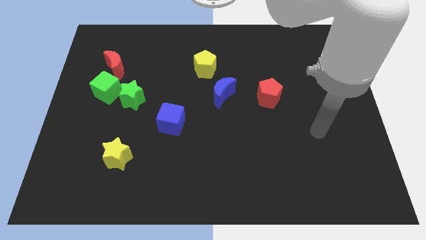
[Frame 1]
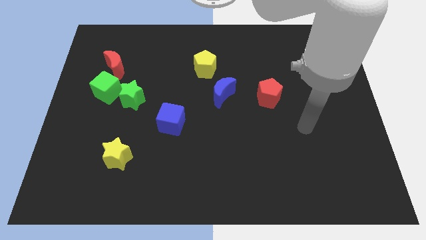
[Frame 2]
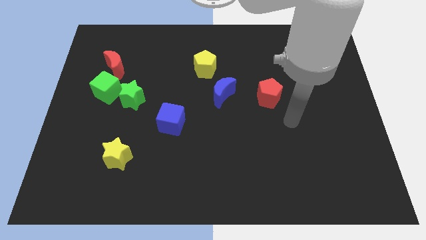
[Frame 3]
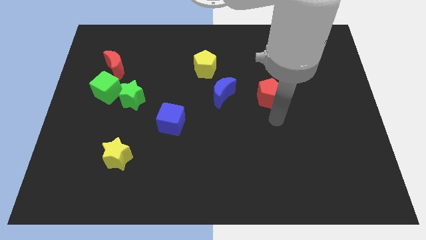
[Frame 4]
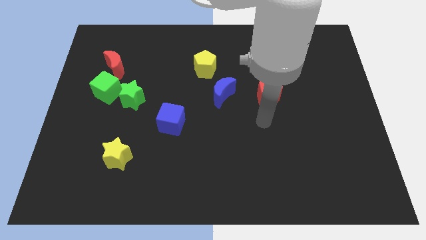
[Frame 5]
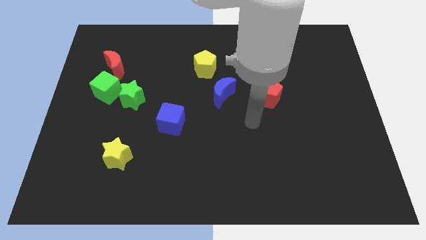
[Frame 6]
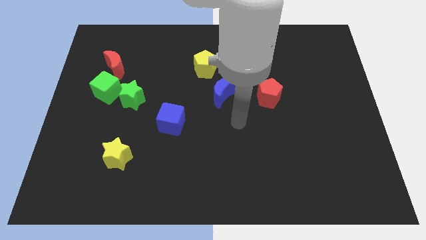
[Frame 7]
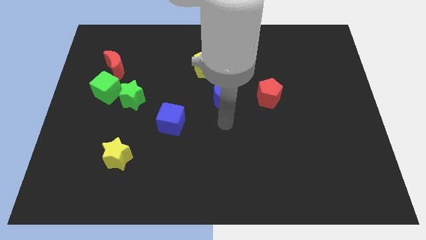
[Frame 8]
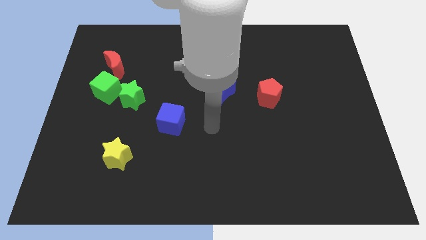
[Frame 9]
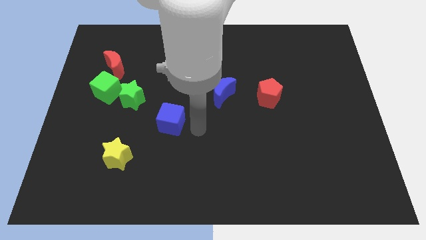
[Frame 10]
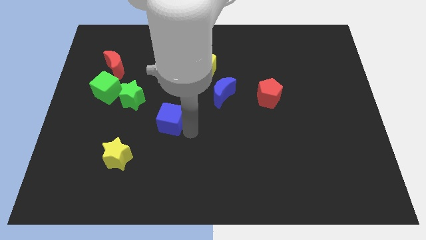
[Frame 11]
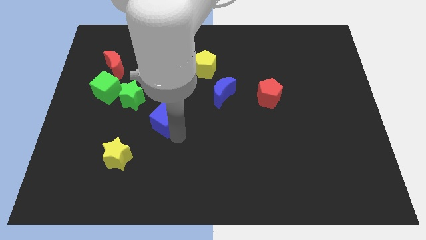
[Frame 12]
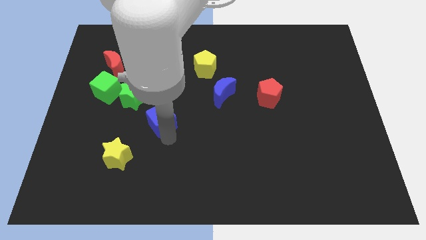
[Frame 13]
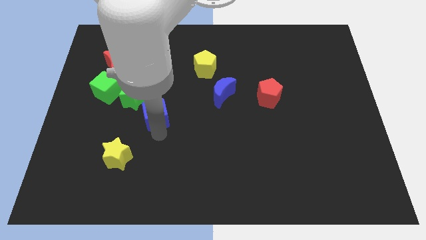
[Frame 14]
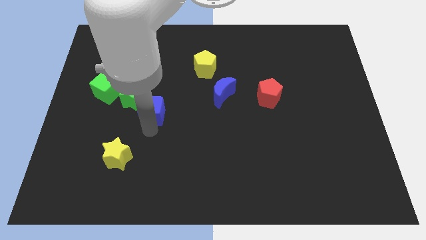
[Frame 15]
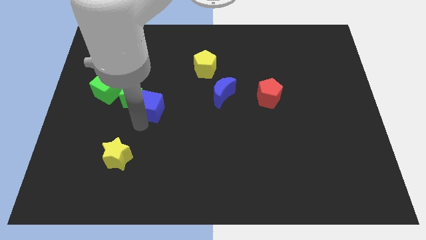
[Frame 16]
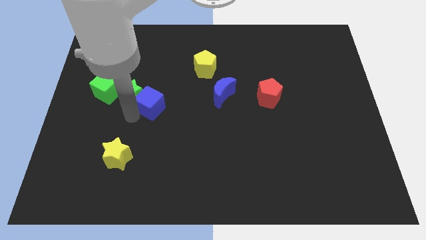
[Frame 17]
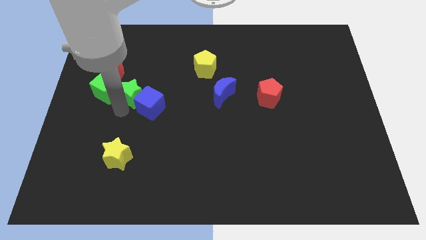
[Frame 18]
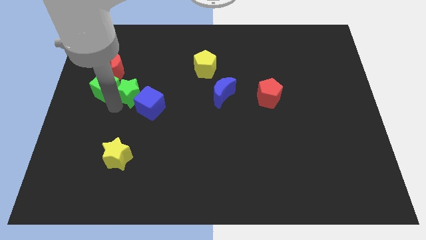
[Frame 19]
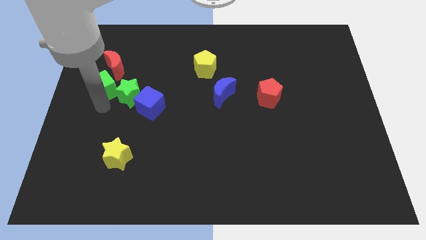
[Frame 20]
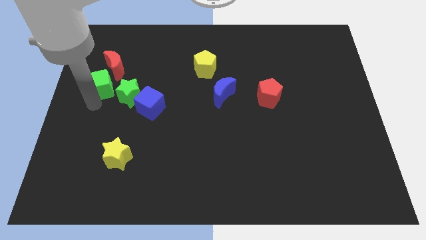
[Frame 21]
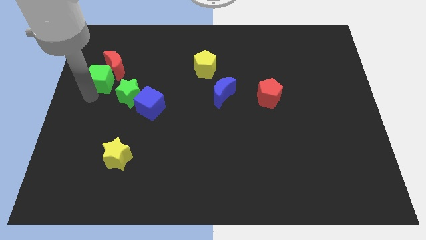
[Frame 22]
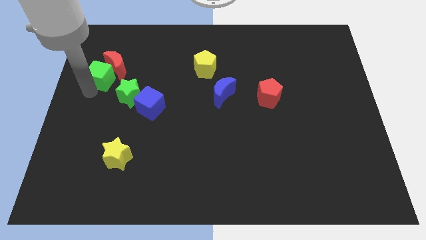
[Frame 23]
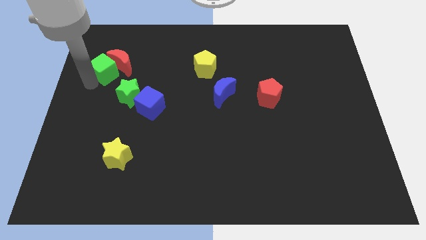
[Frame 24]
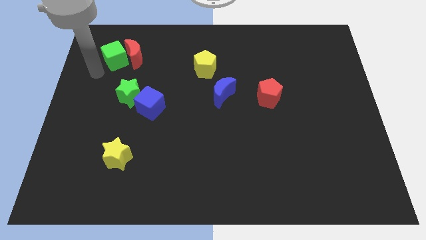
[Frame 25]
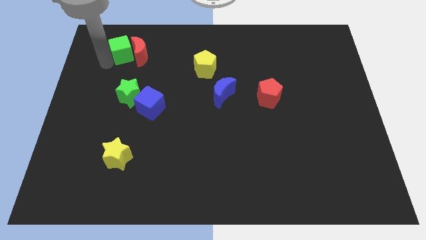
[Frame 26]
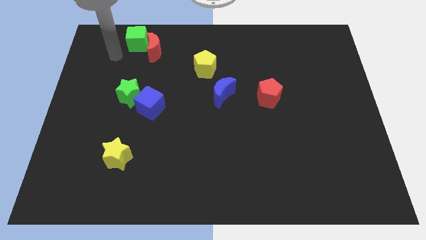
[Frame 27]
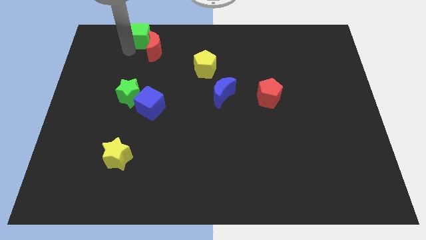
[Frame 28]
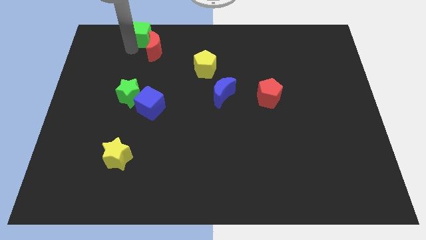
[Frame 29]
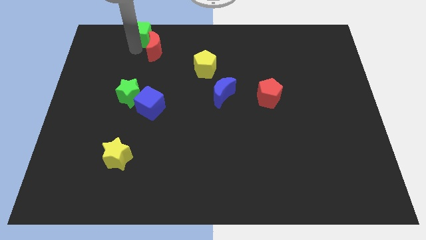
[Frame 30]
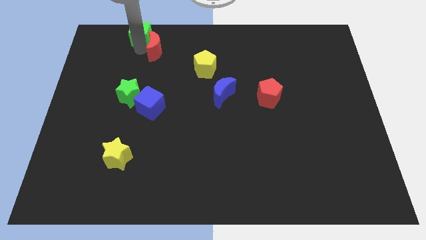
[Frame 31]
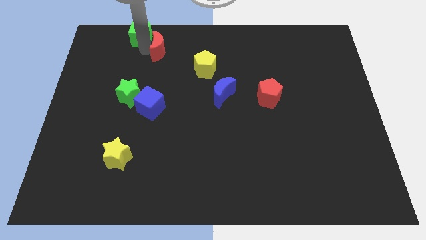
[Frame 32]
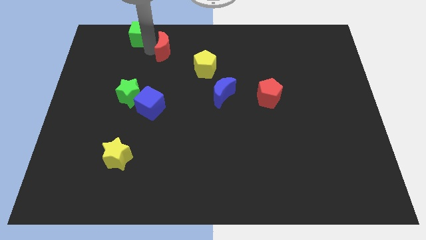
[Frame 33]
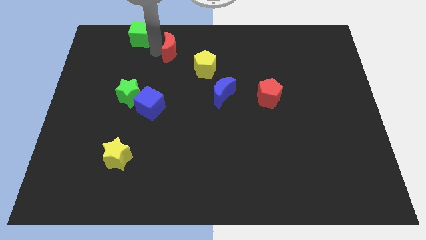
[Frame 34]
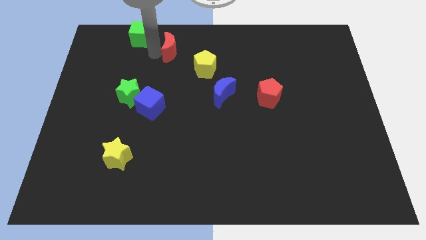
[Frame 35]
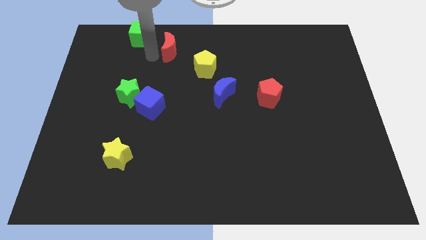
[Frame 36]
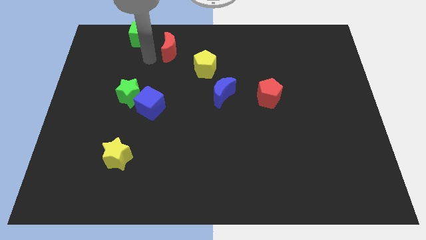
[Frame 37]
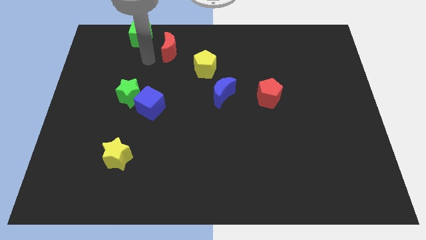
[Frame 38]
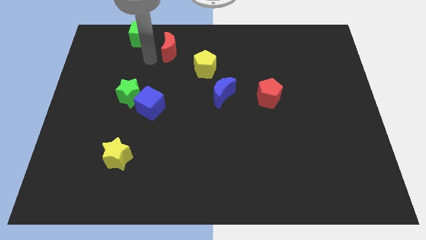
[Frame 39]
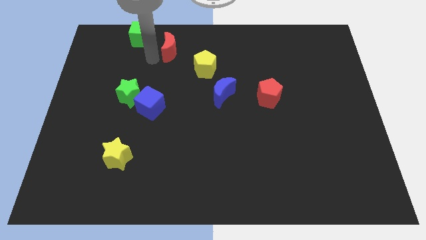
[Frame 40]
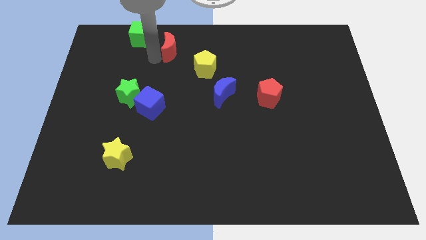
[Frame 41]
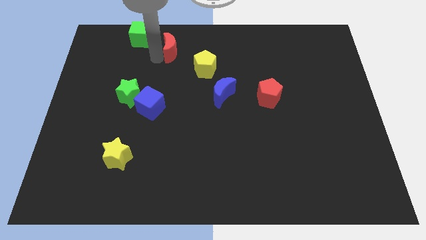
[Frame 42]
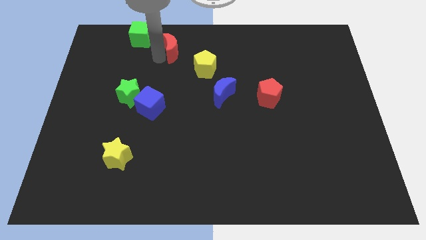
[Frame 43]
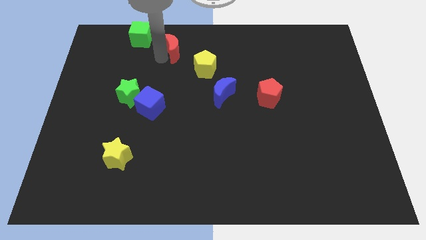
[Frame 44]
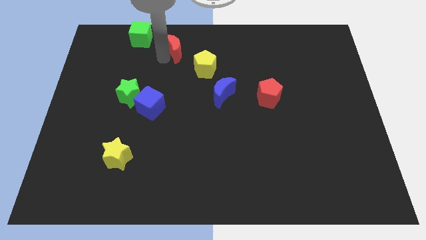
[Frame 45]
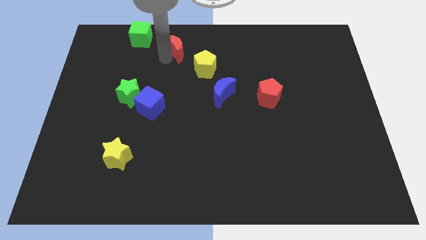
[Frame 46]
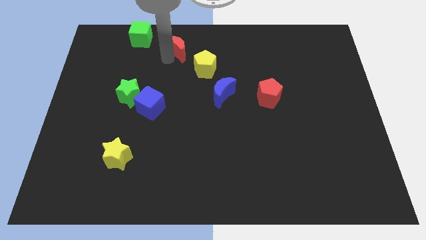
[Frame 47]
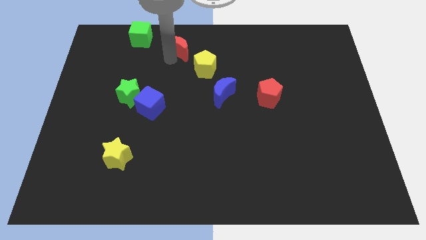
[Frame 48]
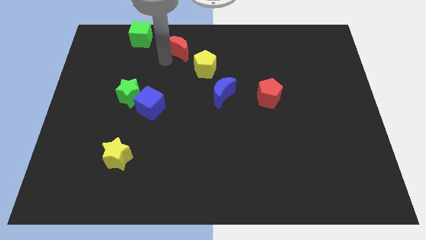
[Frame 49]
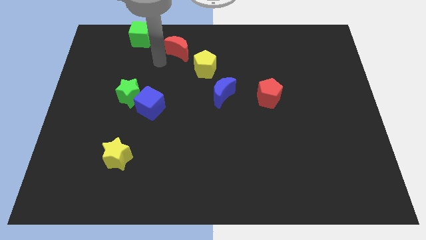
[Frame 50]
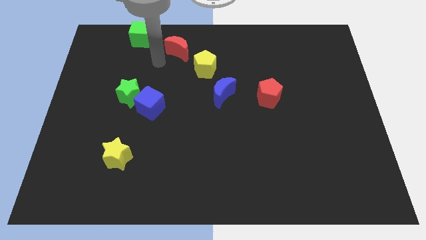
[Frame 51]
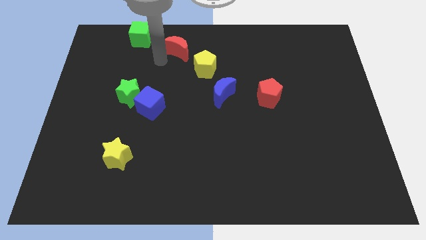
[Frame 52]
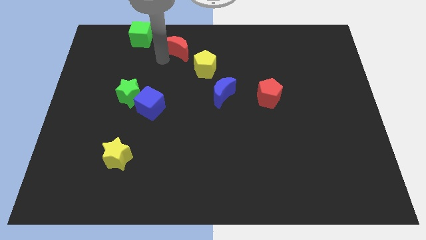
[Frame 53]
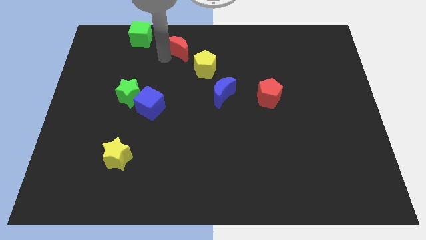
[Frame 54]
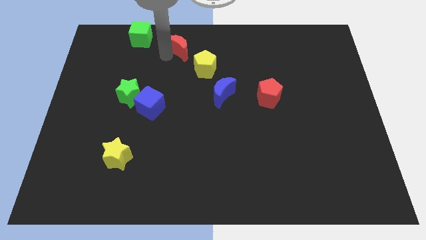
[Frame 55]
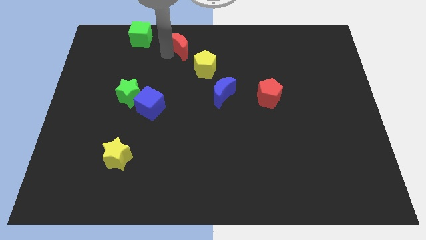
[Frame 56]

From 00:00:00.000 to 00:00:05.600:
move the red moon to the top

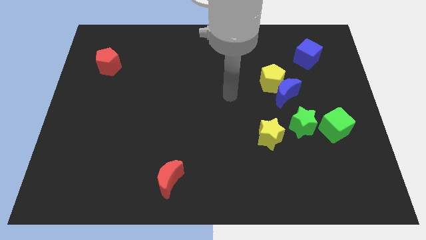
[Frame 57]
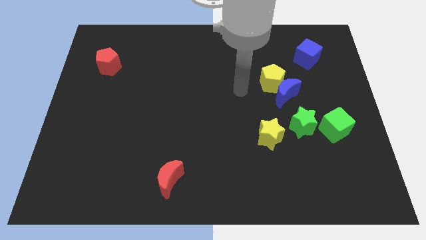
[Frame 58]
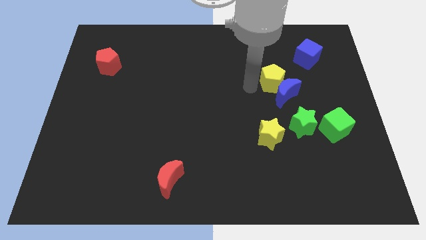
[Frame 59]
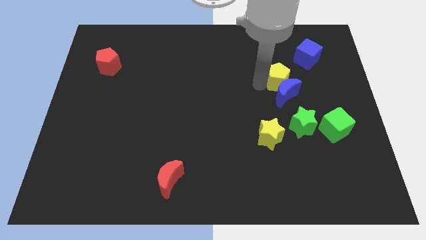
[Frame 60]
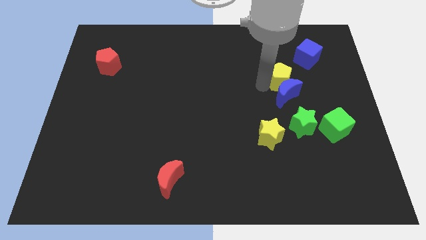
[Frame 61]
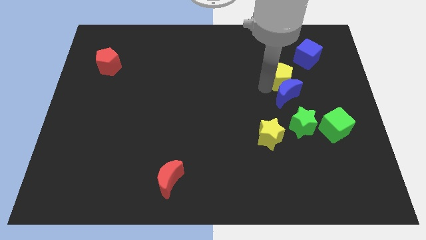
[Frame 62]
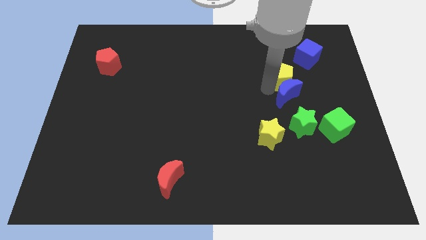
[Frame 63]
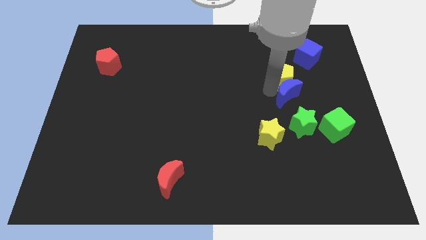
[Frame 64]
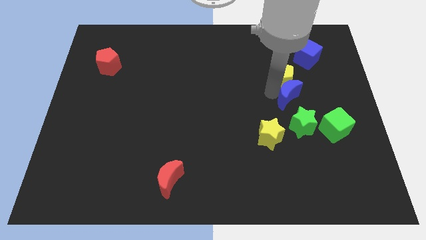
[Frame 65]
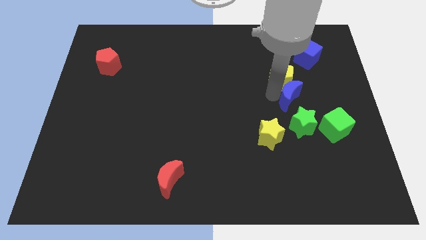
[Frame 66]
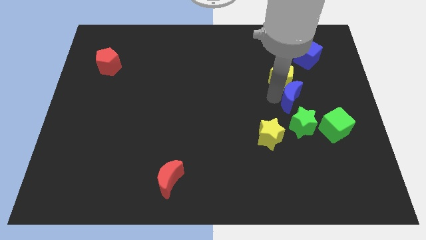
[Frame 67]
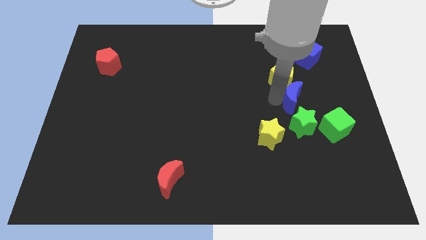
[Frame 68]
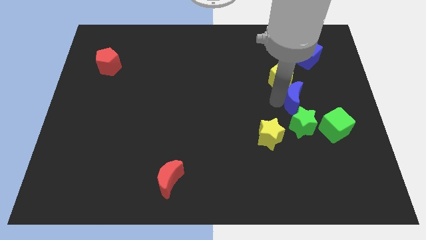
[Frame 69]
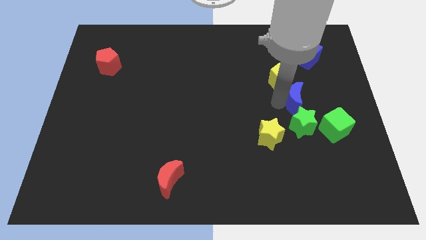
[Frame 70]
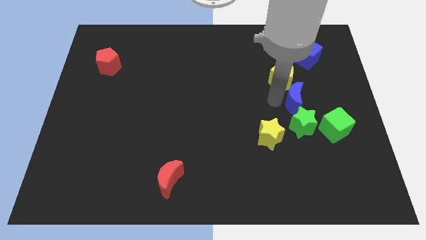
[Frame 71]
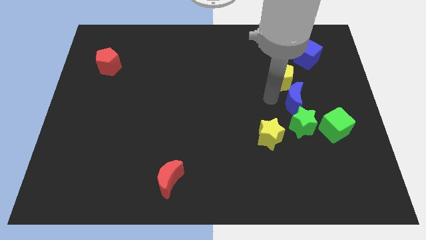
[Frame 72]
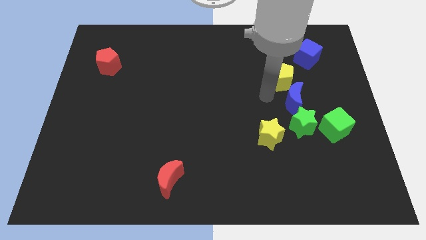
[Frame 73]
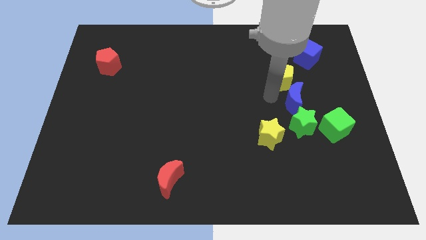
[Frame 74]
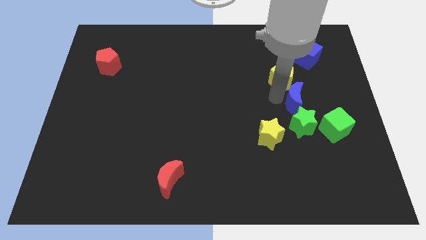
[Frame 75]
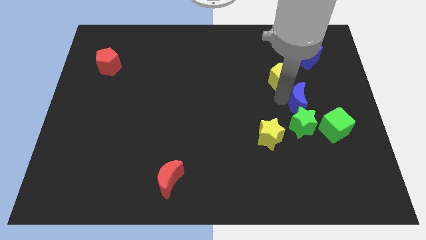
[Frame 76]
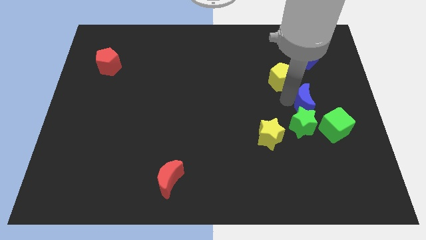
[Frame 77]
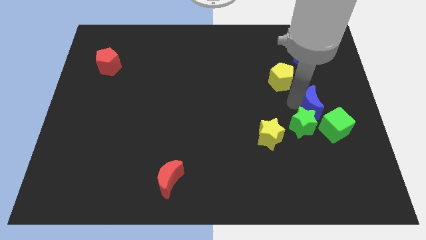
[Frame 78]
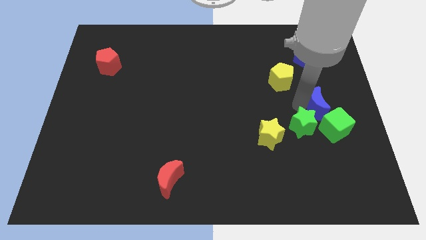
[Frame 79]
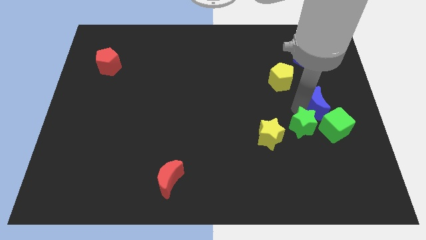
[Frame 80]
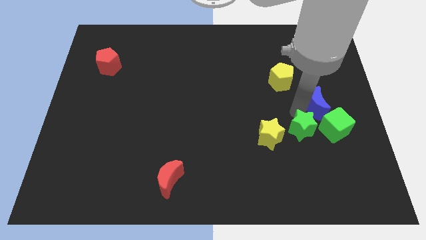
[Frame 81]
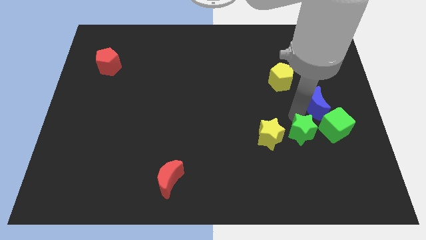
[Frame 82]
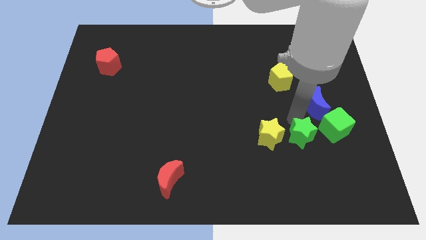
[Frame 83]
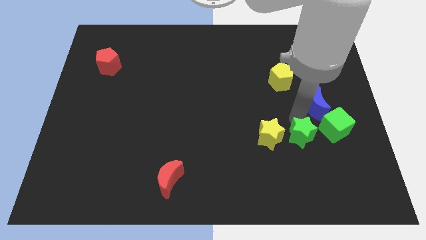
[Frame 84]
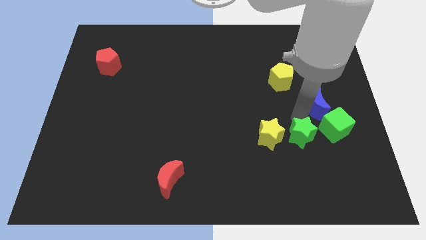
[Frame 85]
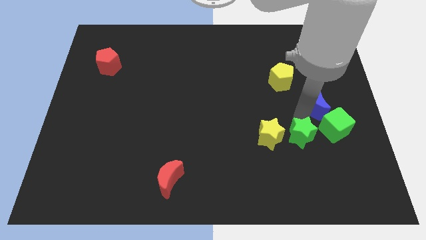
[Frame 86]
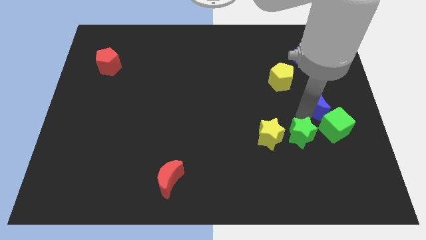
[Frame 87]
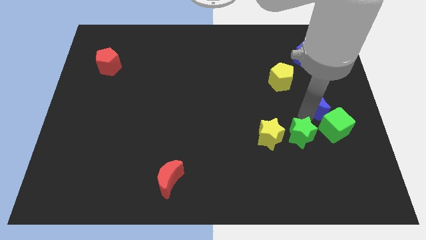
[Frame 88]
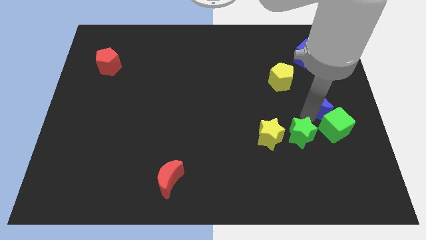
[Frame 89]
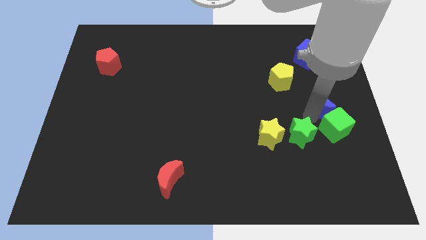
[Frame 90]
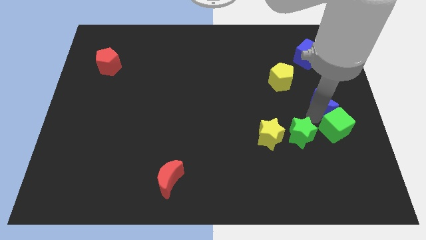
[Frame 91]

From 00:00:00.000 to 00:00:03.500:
slide the blue moon to the center right
